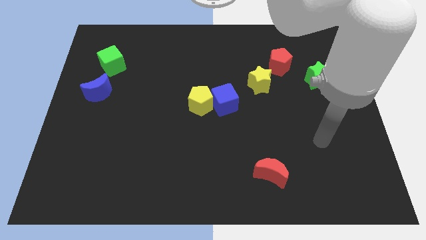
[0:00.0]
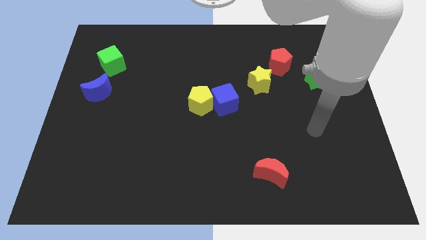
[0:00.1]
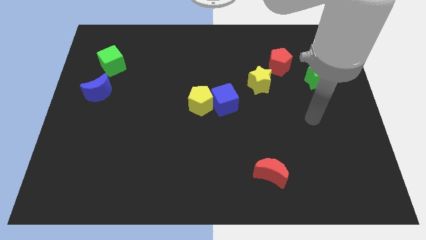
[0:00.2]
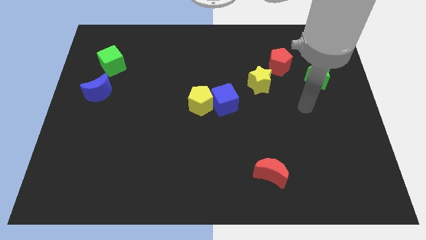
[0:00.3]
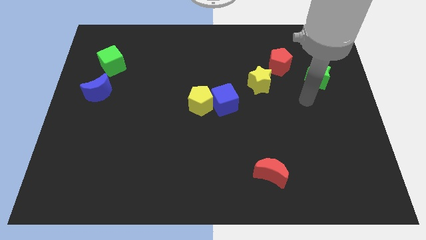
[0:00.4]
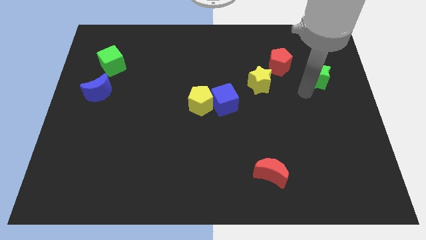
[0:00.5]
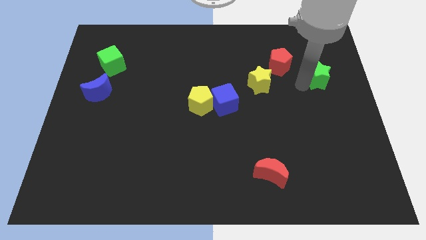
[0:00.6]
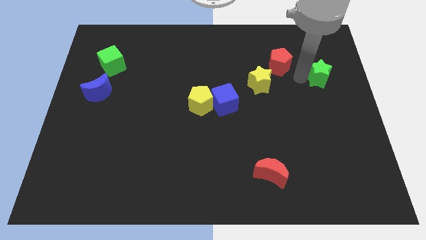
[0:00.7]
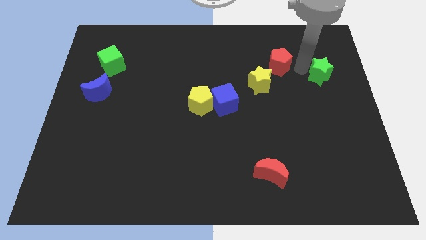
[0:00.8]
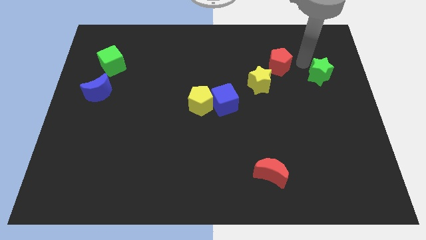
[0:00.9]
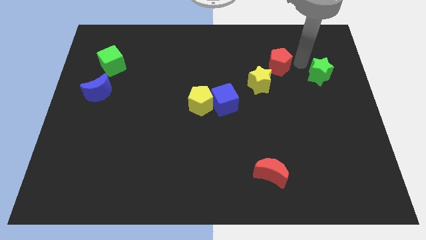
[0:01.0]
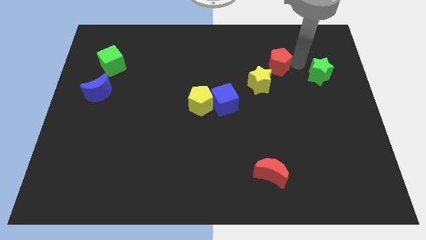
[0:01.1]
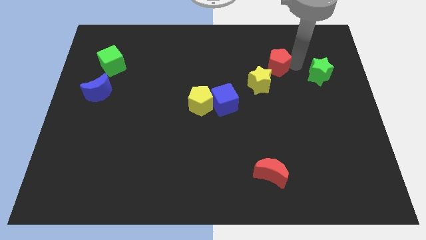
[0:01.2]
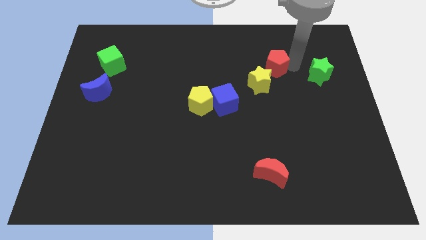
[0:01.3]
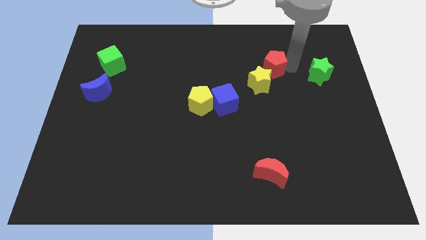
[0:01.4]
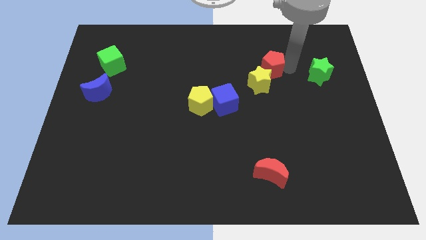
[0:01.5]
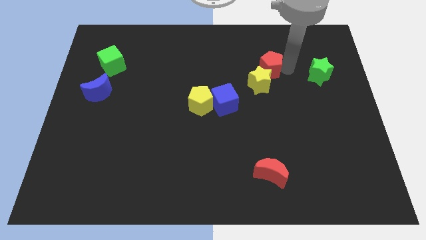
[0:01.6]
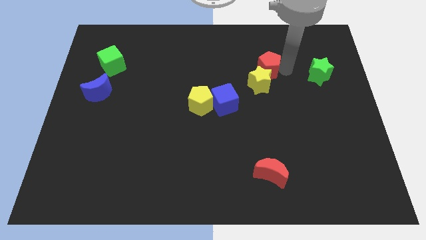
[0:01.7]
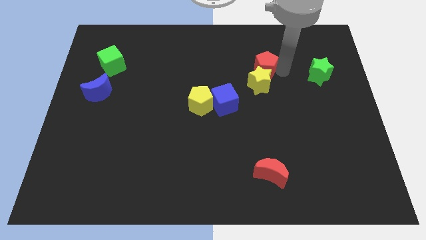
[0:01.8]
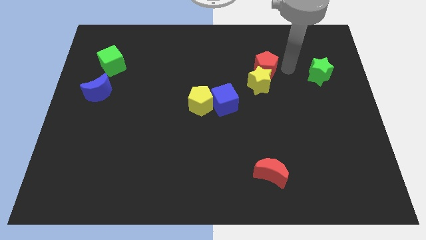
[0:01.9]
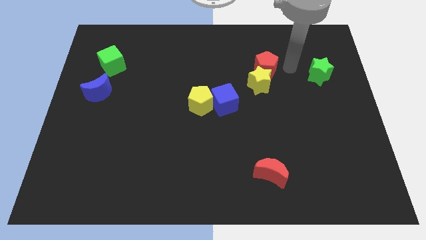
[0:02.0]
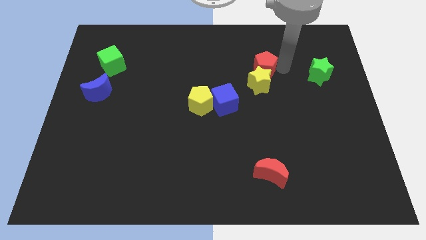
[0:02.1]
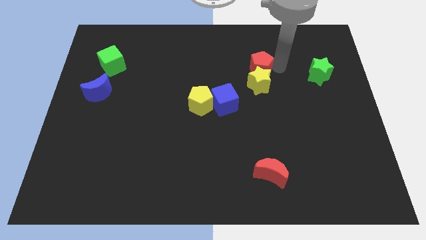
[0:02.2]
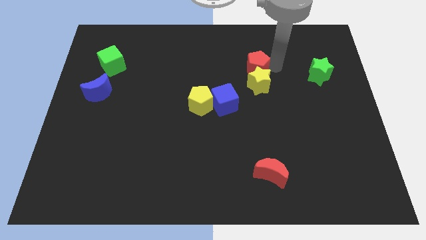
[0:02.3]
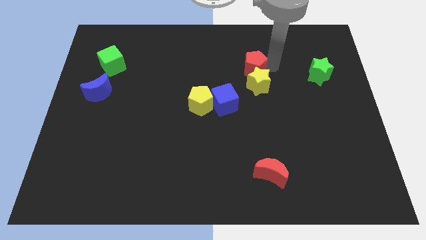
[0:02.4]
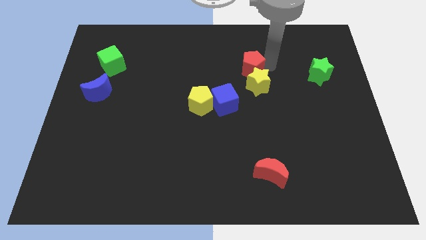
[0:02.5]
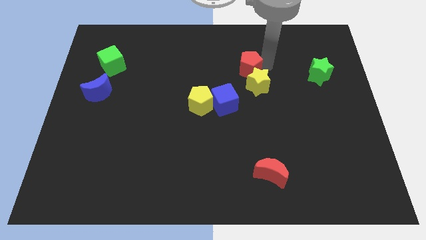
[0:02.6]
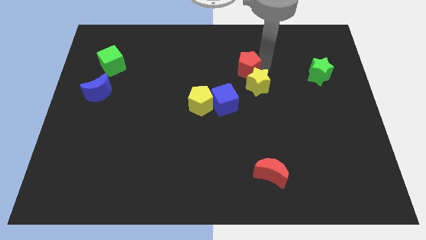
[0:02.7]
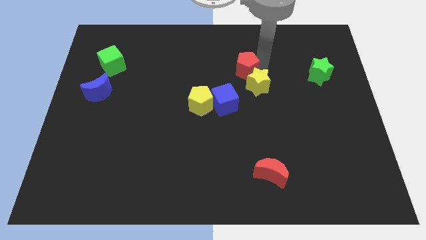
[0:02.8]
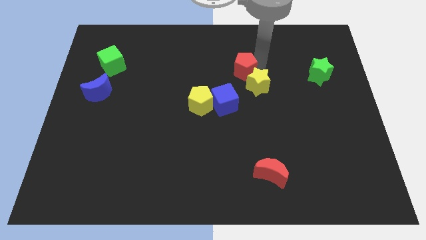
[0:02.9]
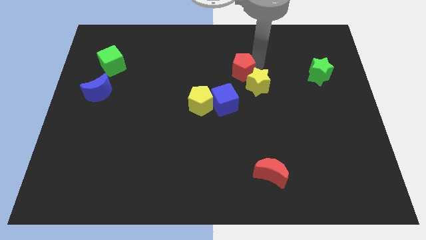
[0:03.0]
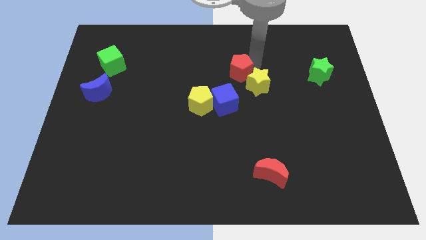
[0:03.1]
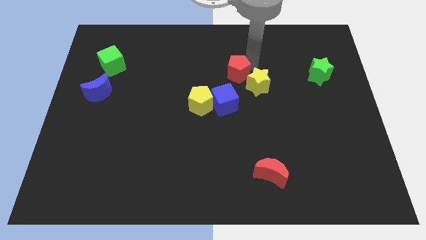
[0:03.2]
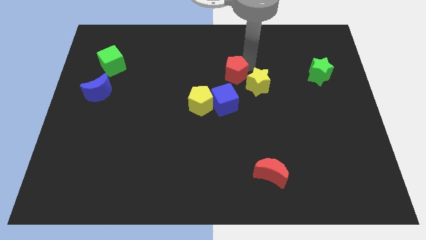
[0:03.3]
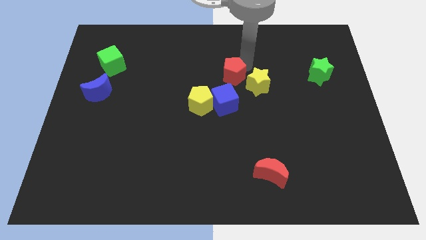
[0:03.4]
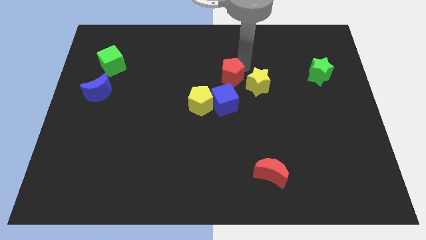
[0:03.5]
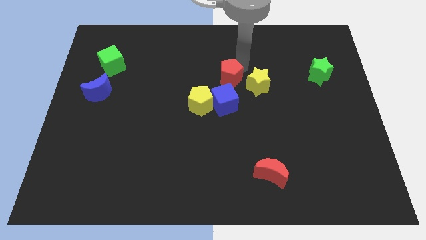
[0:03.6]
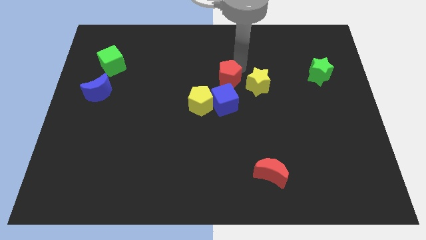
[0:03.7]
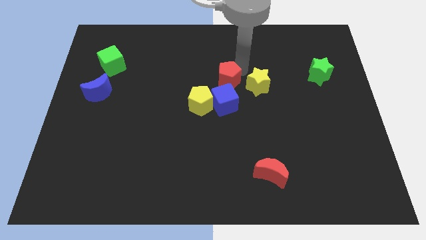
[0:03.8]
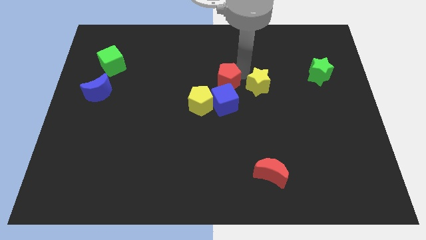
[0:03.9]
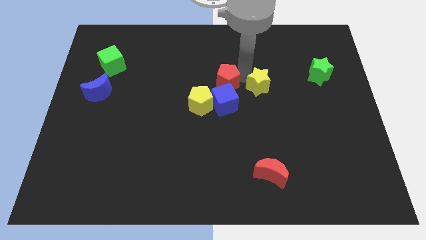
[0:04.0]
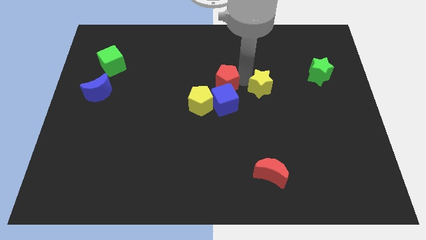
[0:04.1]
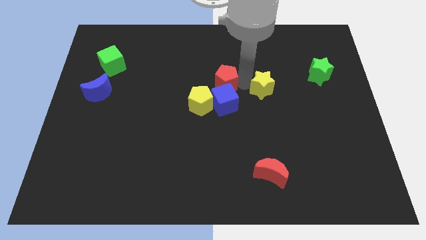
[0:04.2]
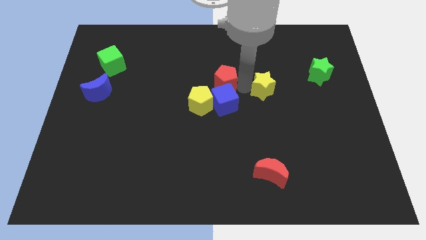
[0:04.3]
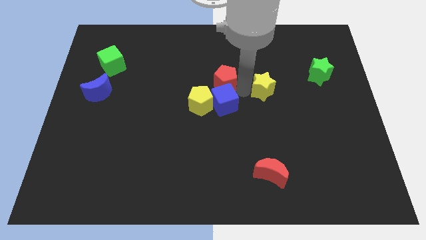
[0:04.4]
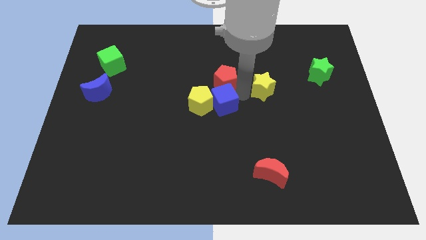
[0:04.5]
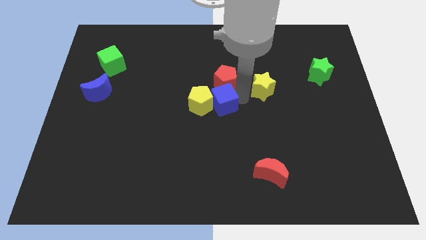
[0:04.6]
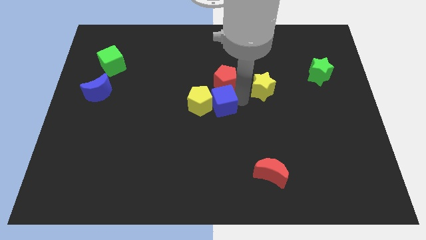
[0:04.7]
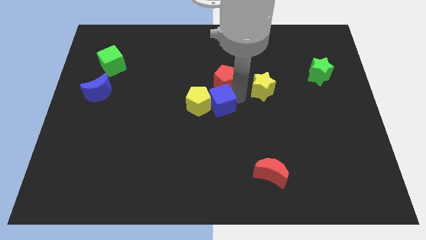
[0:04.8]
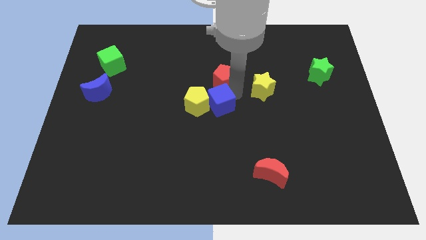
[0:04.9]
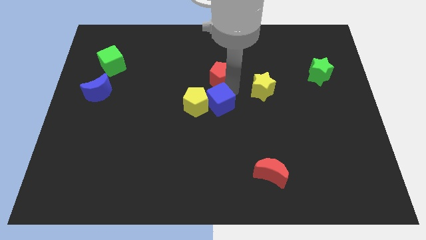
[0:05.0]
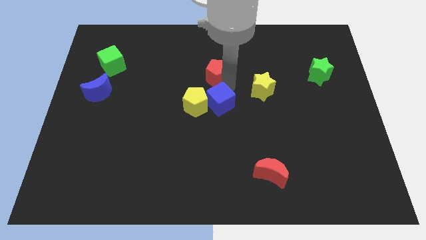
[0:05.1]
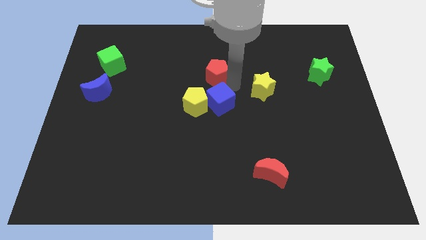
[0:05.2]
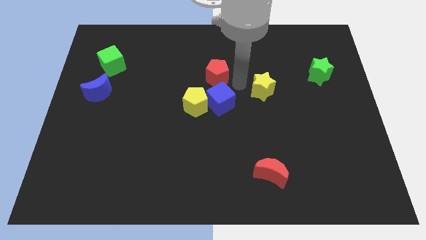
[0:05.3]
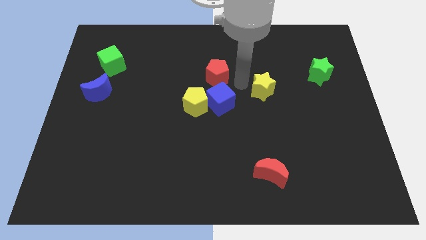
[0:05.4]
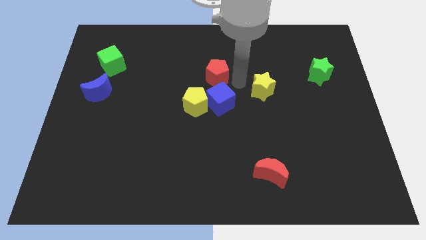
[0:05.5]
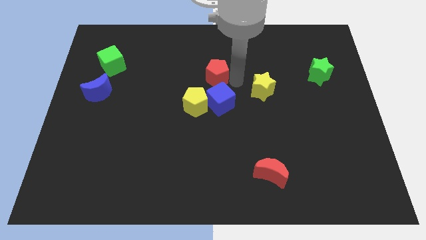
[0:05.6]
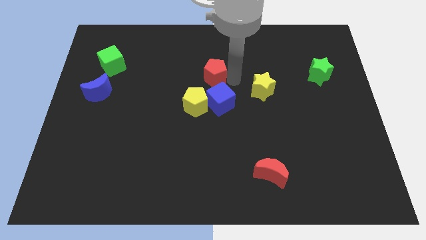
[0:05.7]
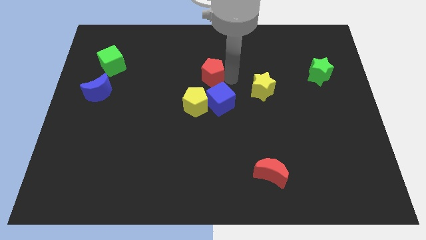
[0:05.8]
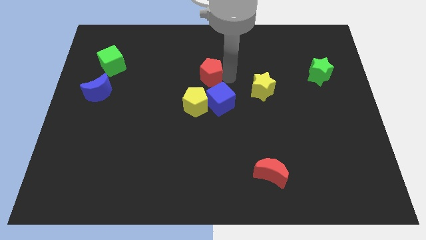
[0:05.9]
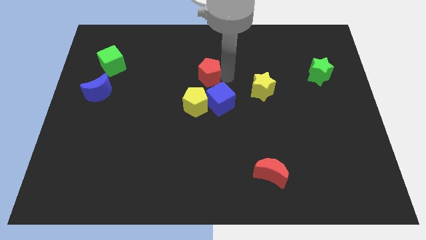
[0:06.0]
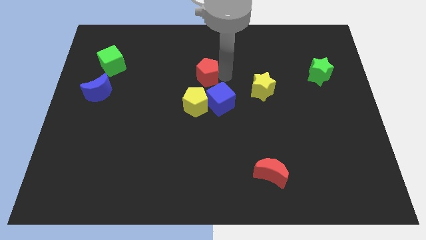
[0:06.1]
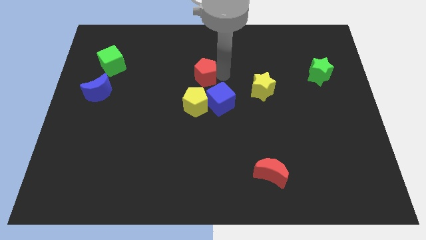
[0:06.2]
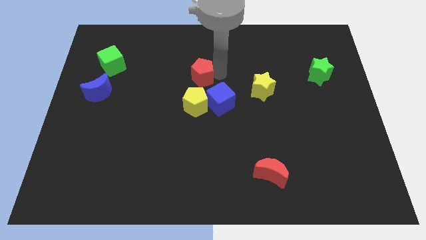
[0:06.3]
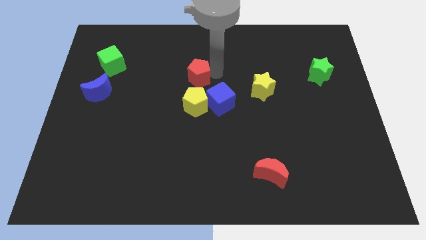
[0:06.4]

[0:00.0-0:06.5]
push the red pentagon to the left

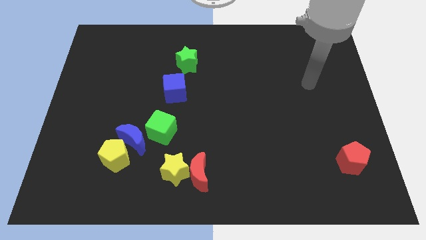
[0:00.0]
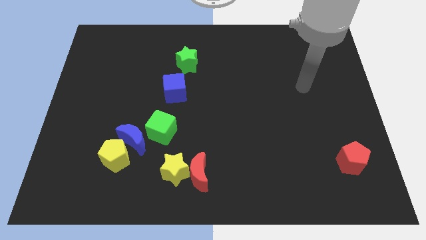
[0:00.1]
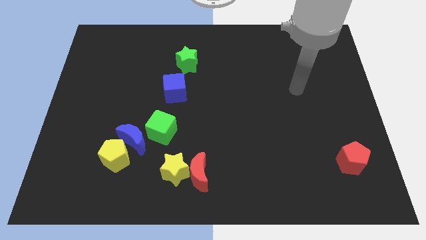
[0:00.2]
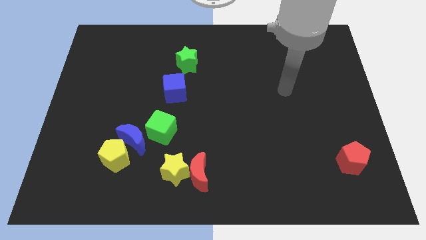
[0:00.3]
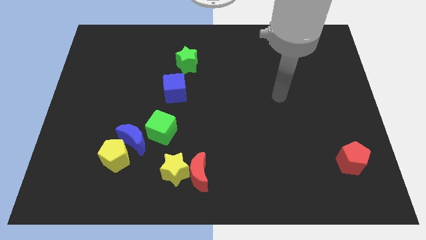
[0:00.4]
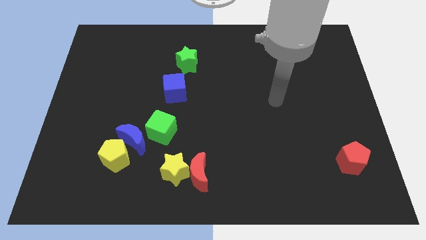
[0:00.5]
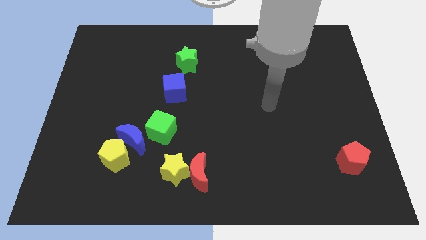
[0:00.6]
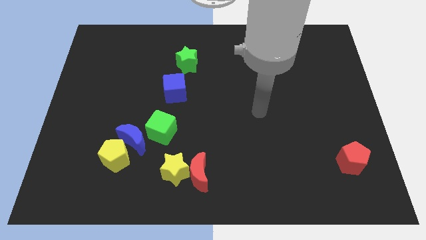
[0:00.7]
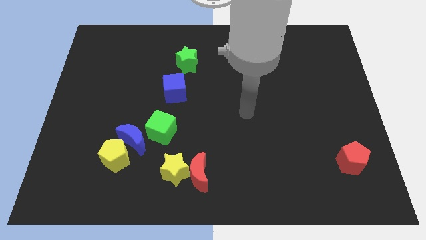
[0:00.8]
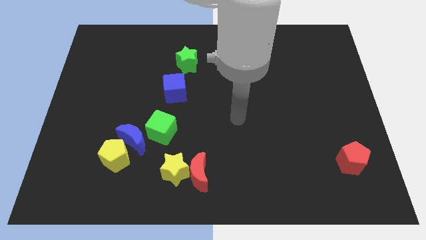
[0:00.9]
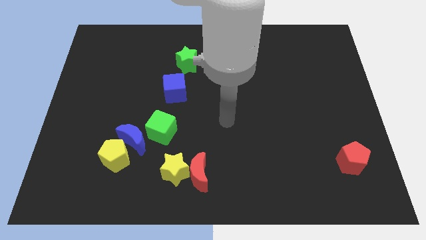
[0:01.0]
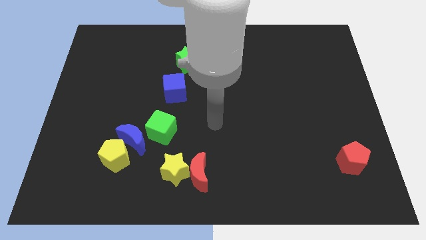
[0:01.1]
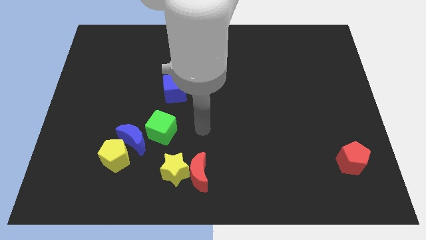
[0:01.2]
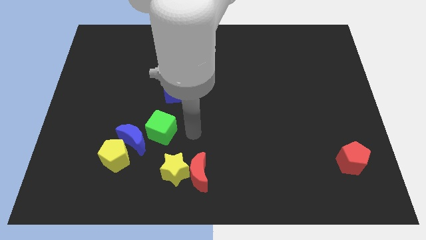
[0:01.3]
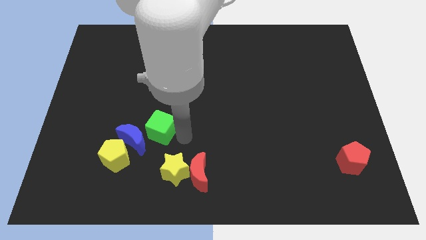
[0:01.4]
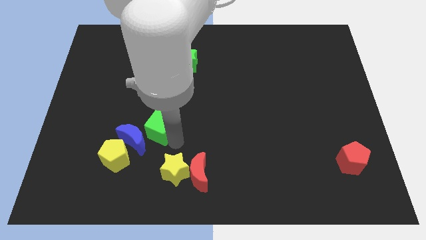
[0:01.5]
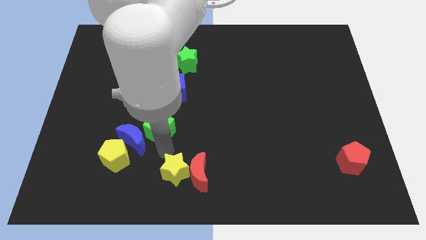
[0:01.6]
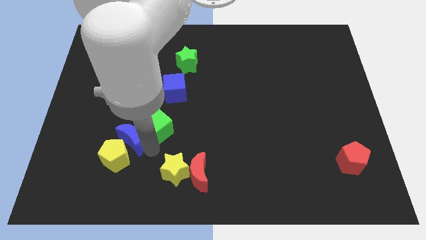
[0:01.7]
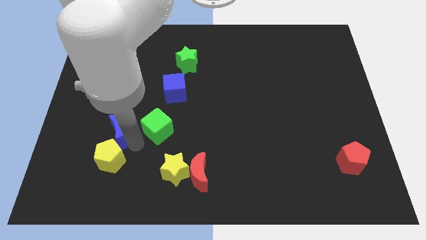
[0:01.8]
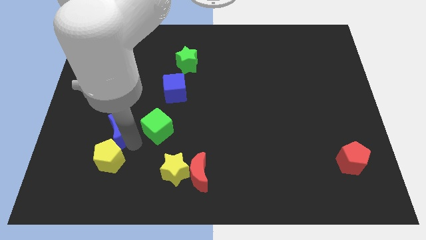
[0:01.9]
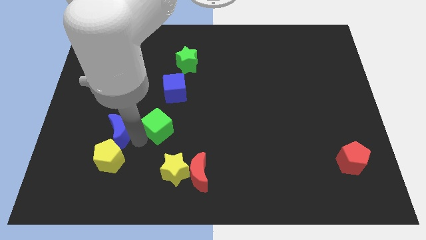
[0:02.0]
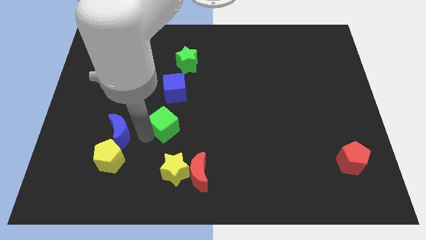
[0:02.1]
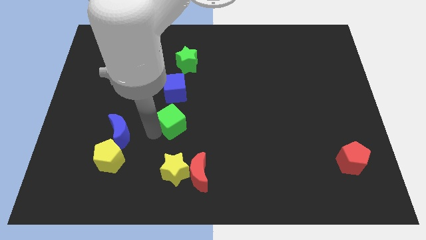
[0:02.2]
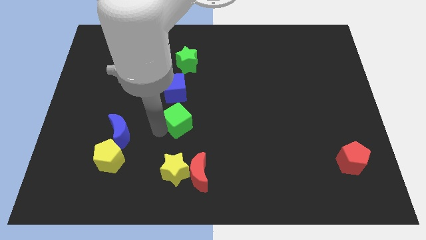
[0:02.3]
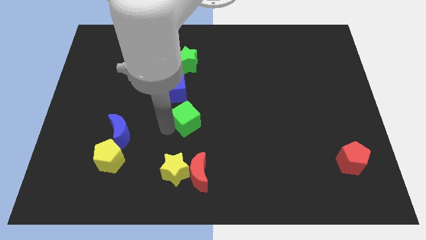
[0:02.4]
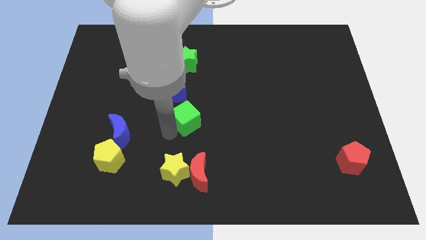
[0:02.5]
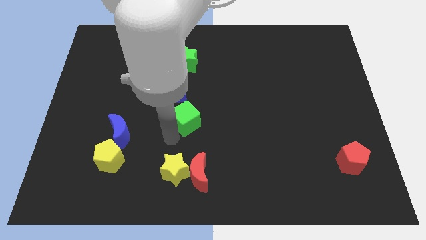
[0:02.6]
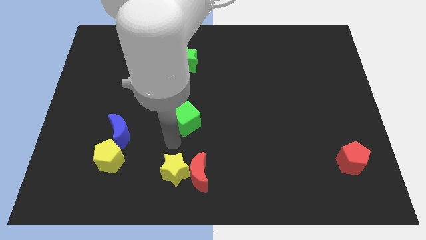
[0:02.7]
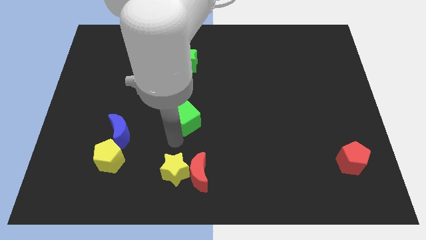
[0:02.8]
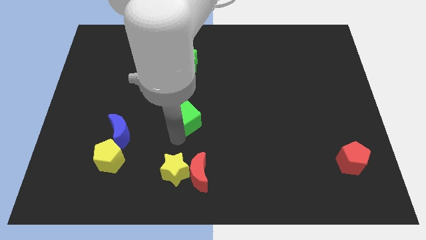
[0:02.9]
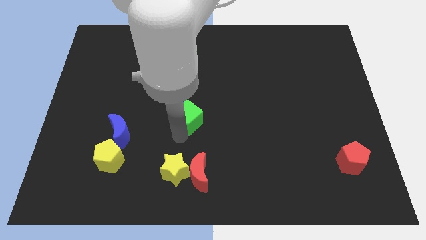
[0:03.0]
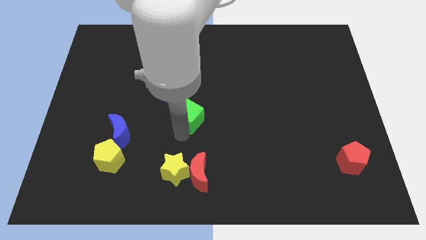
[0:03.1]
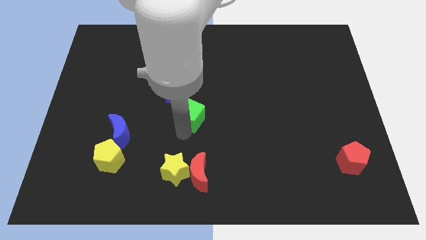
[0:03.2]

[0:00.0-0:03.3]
slide the green cube up and right diagonally a little bit
